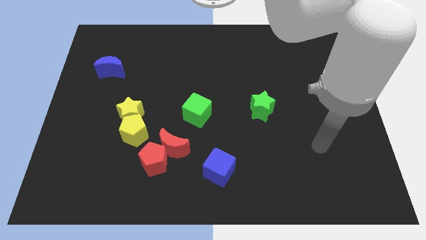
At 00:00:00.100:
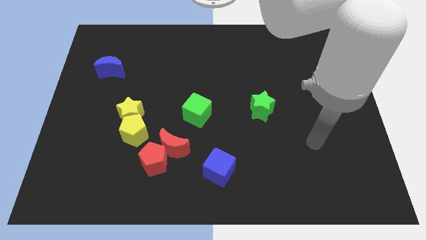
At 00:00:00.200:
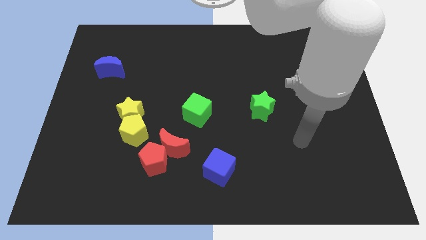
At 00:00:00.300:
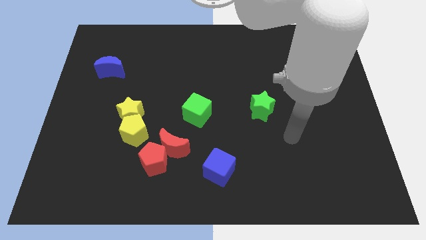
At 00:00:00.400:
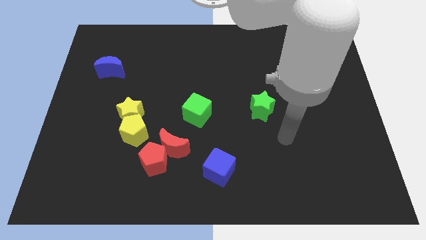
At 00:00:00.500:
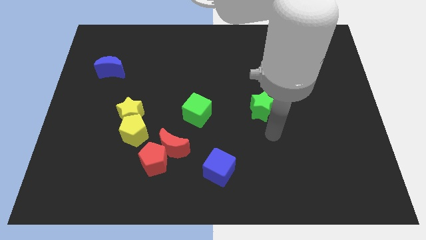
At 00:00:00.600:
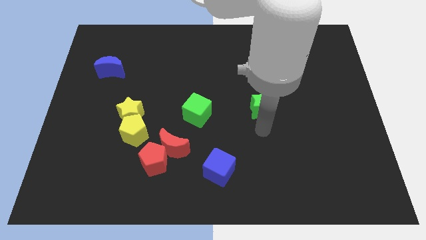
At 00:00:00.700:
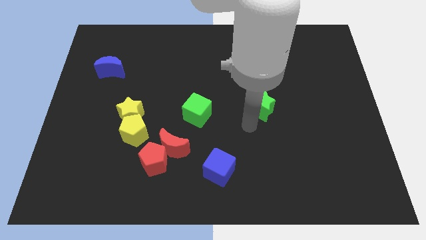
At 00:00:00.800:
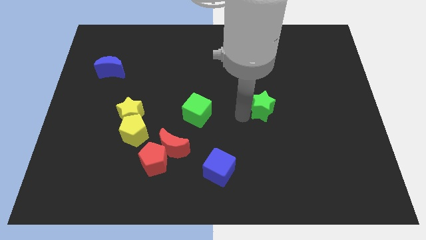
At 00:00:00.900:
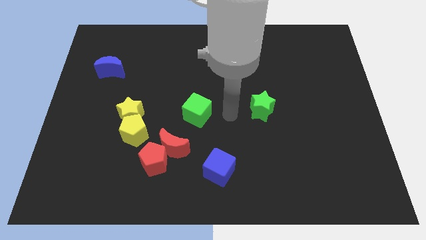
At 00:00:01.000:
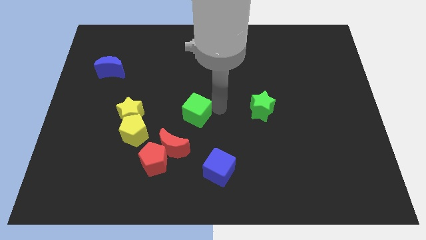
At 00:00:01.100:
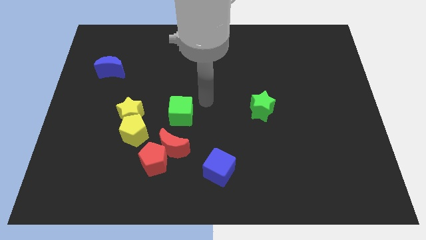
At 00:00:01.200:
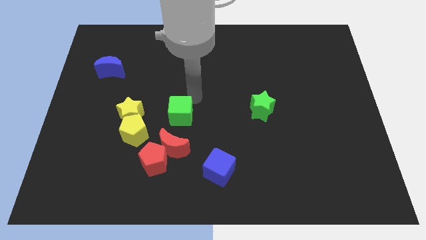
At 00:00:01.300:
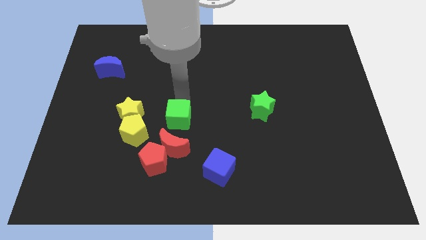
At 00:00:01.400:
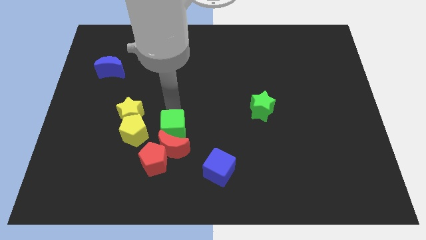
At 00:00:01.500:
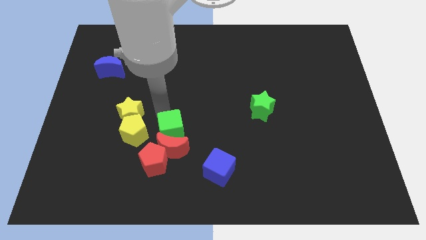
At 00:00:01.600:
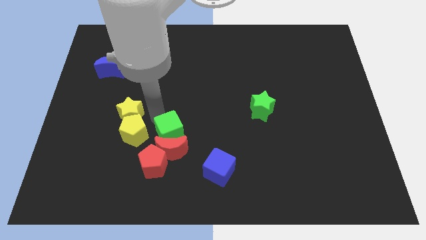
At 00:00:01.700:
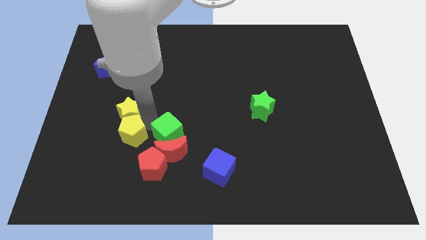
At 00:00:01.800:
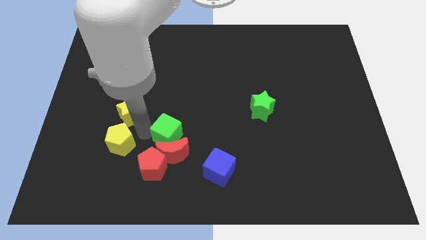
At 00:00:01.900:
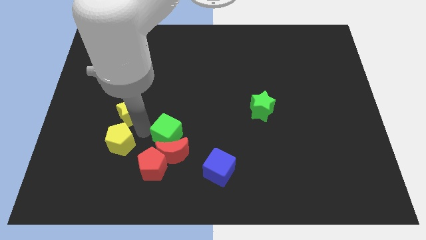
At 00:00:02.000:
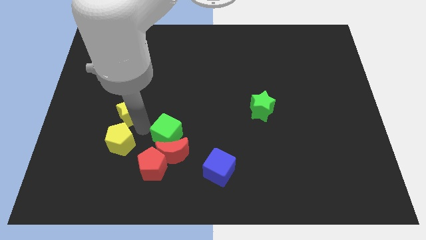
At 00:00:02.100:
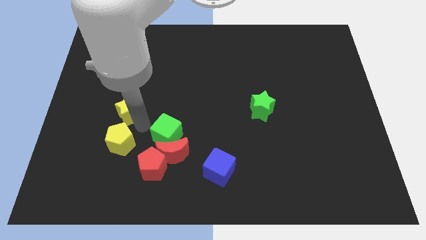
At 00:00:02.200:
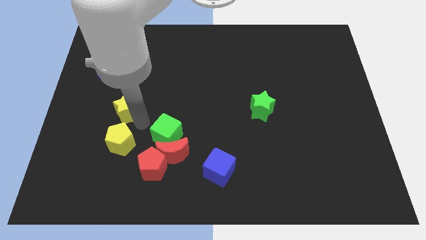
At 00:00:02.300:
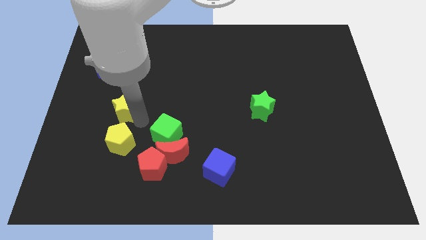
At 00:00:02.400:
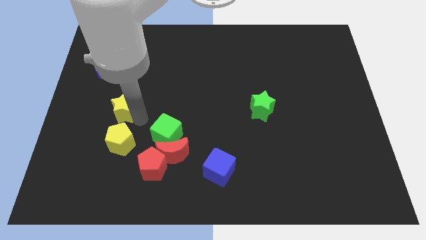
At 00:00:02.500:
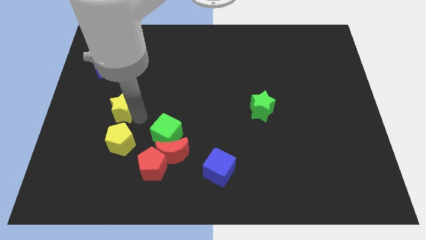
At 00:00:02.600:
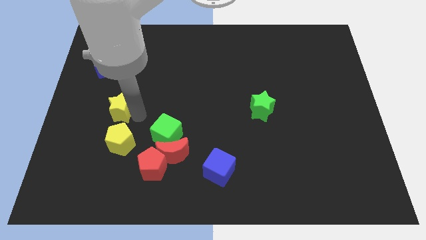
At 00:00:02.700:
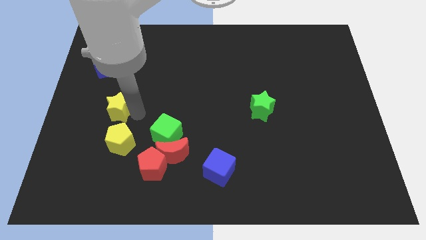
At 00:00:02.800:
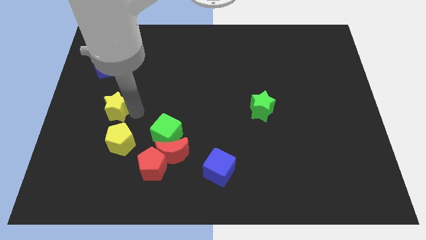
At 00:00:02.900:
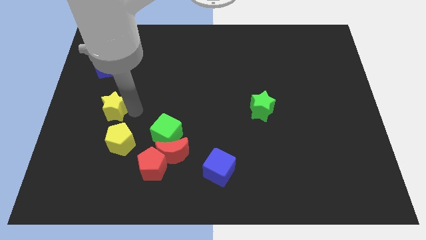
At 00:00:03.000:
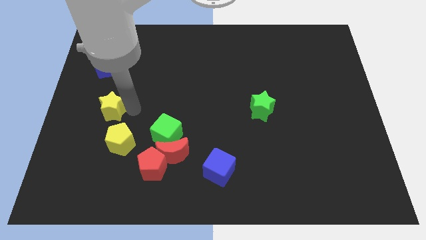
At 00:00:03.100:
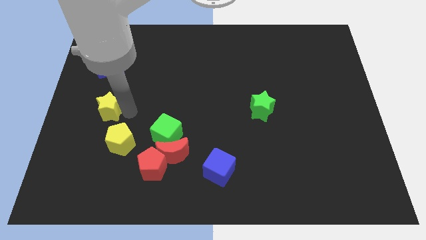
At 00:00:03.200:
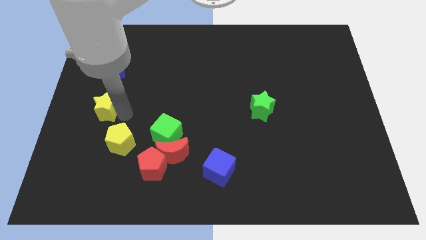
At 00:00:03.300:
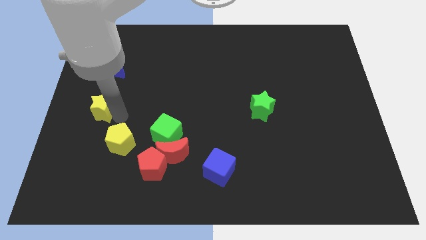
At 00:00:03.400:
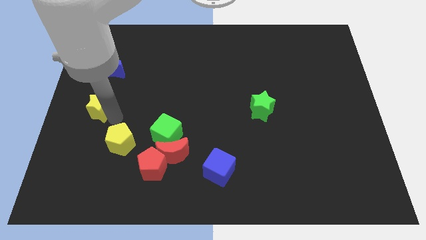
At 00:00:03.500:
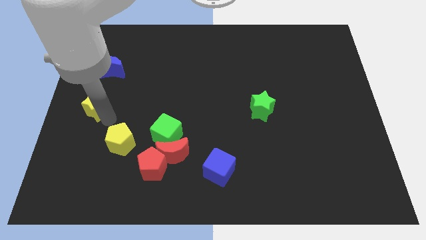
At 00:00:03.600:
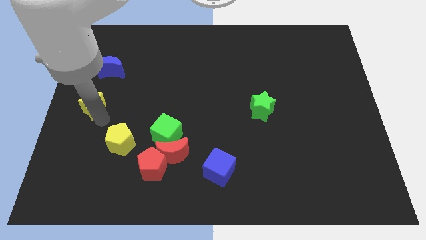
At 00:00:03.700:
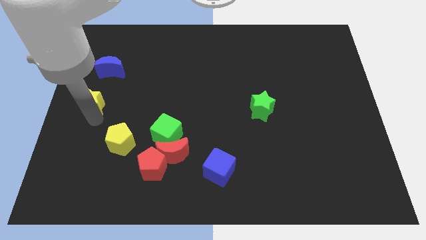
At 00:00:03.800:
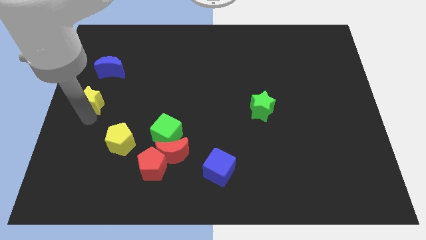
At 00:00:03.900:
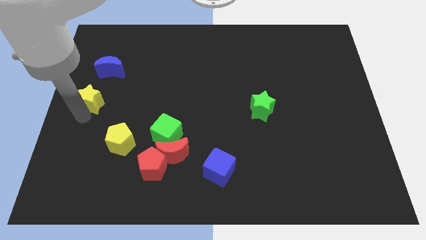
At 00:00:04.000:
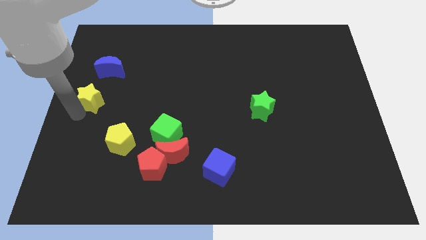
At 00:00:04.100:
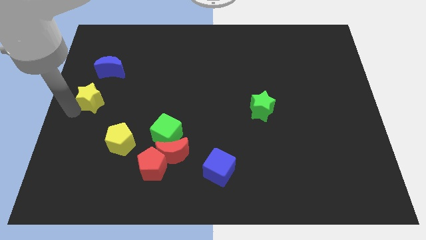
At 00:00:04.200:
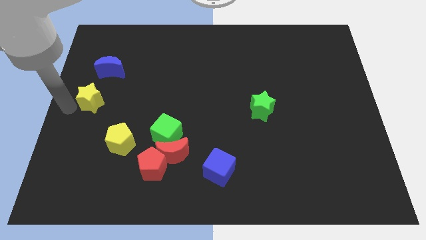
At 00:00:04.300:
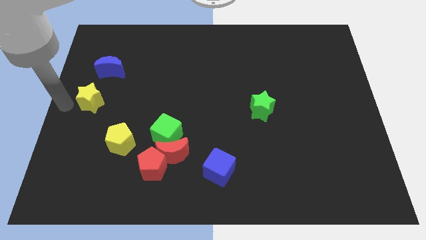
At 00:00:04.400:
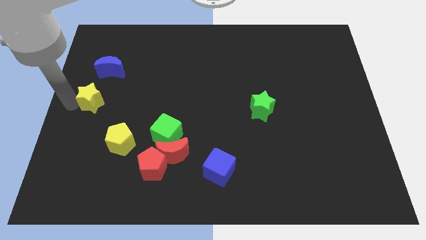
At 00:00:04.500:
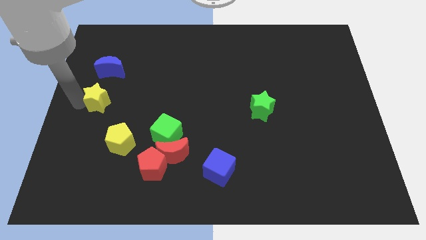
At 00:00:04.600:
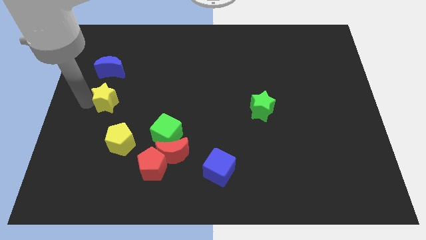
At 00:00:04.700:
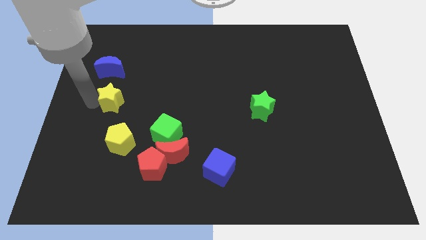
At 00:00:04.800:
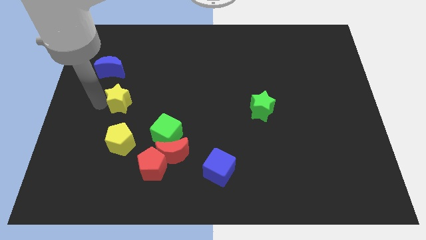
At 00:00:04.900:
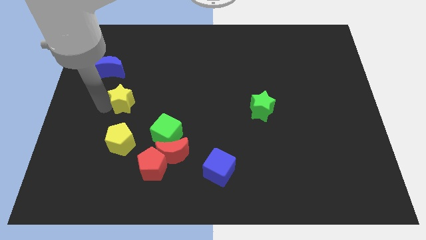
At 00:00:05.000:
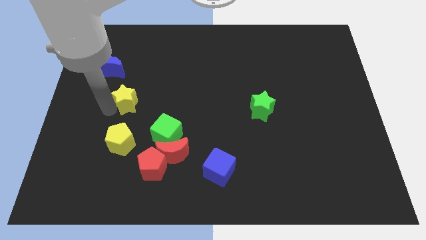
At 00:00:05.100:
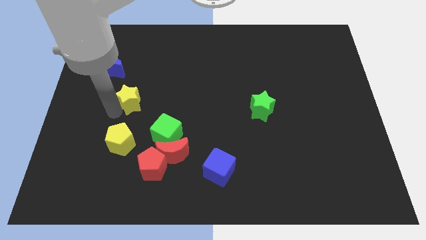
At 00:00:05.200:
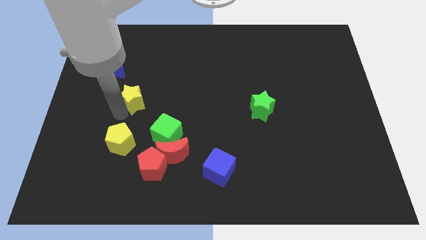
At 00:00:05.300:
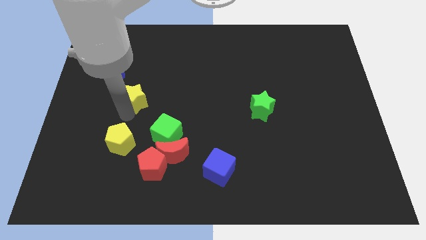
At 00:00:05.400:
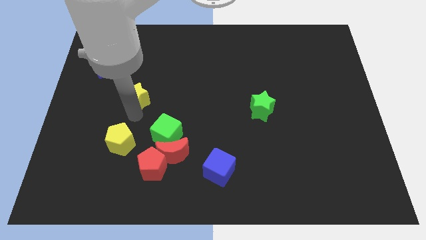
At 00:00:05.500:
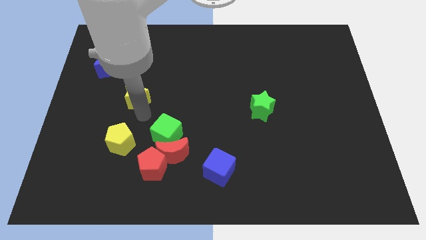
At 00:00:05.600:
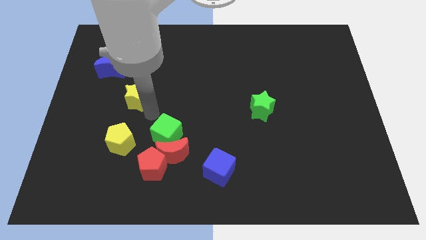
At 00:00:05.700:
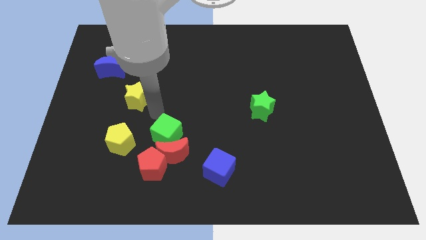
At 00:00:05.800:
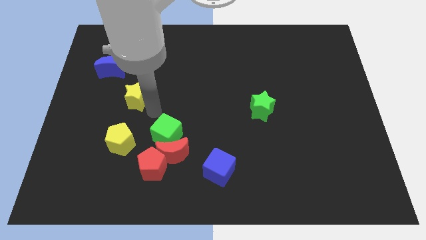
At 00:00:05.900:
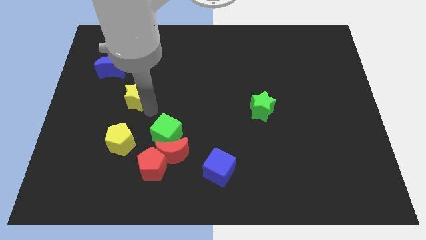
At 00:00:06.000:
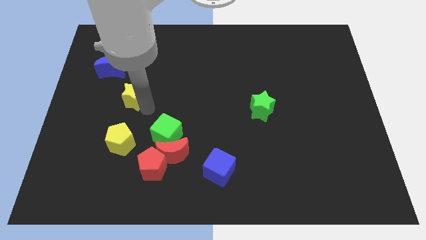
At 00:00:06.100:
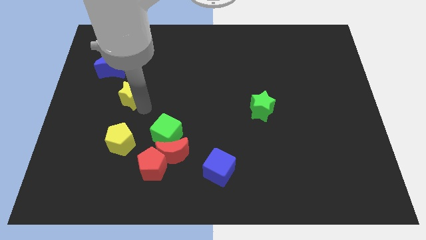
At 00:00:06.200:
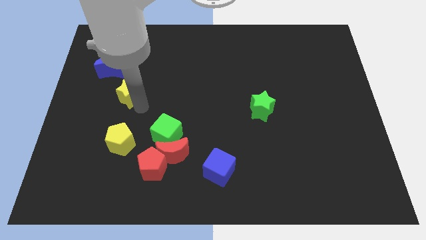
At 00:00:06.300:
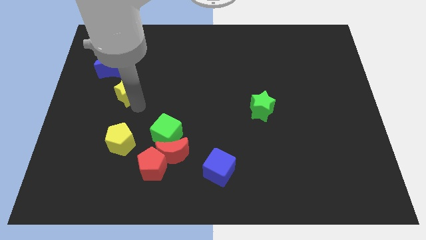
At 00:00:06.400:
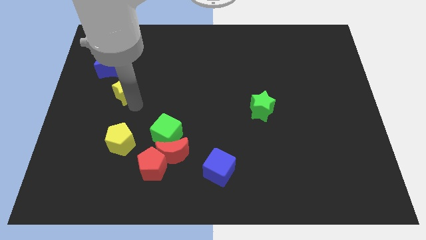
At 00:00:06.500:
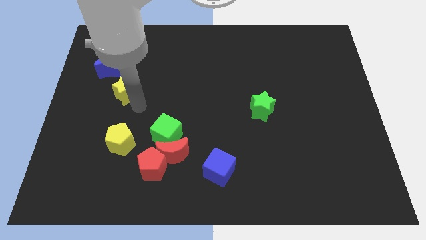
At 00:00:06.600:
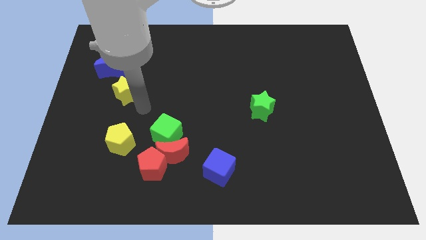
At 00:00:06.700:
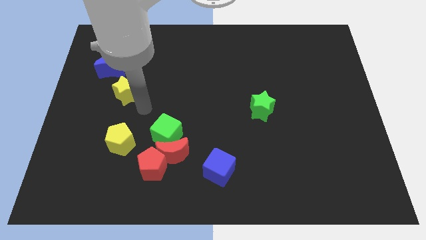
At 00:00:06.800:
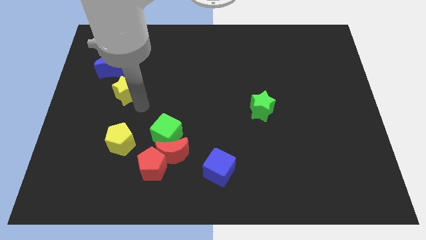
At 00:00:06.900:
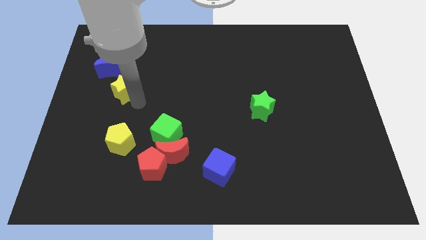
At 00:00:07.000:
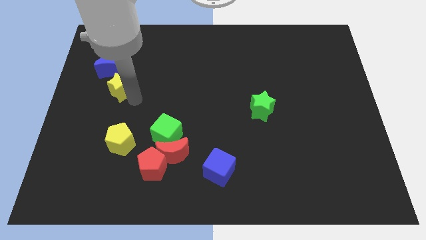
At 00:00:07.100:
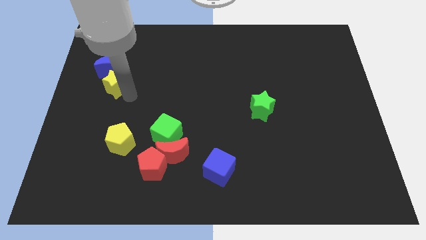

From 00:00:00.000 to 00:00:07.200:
push the yellow star close to the blue moon
